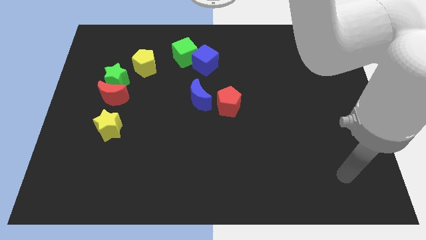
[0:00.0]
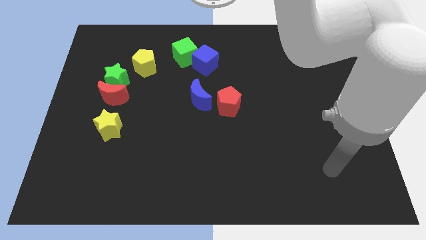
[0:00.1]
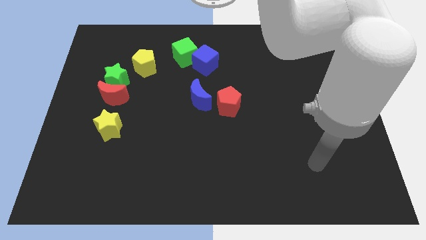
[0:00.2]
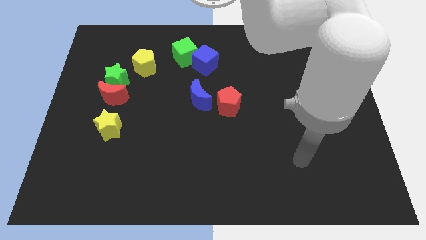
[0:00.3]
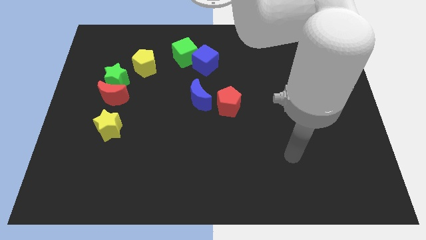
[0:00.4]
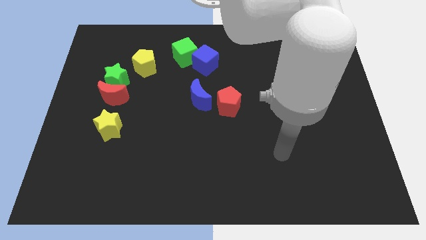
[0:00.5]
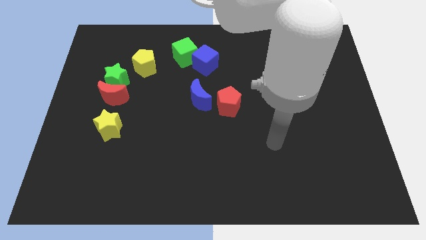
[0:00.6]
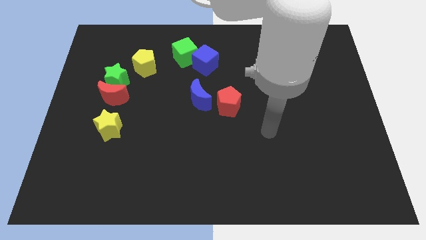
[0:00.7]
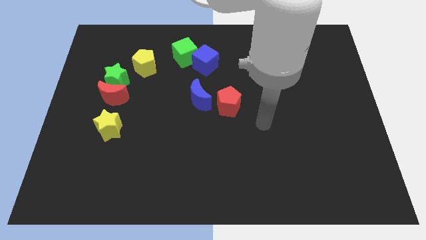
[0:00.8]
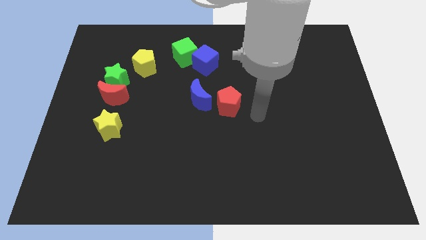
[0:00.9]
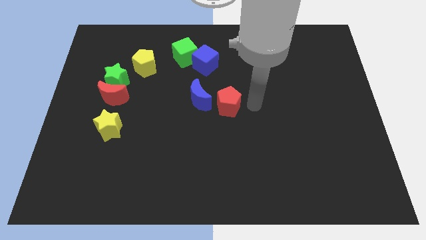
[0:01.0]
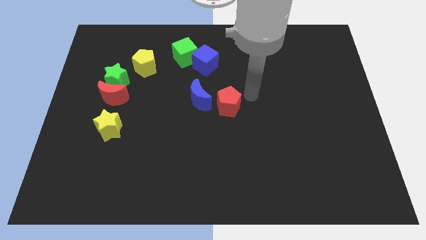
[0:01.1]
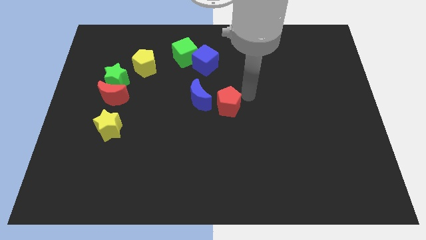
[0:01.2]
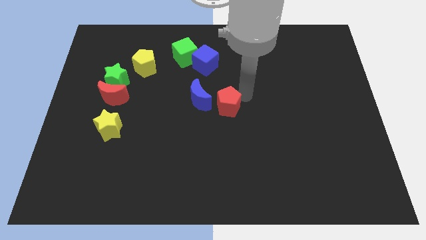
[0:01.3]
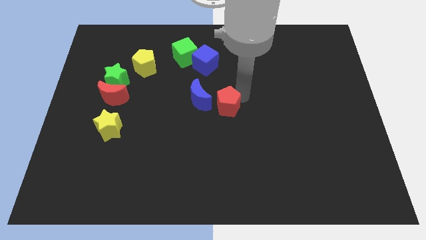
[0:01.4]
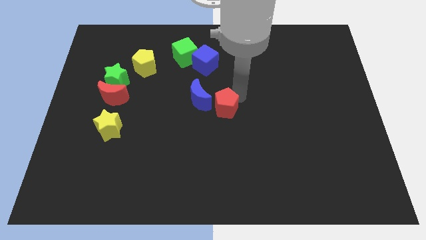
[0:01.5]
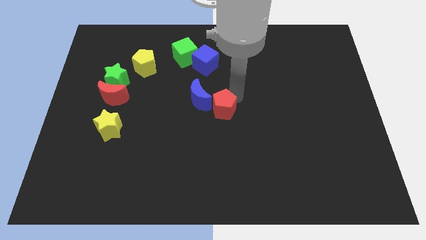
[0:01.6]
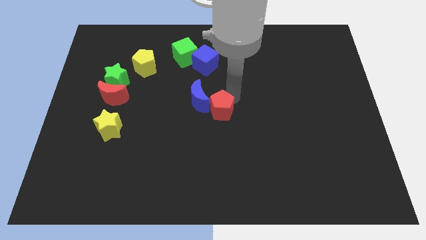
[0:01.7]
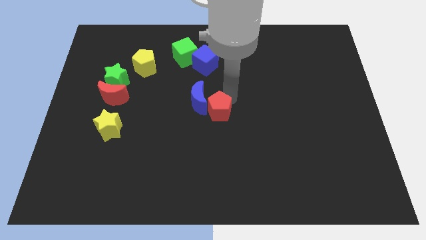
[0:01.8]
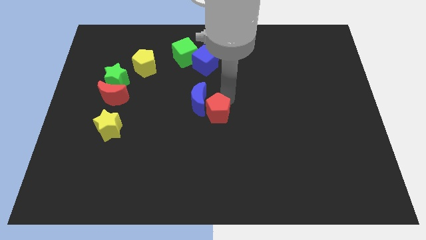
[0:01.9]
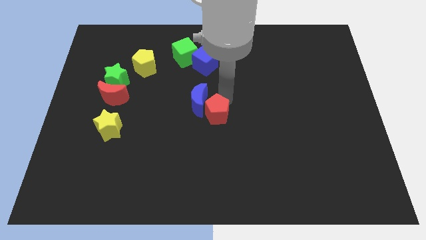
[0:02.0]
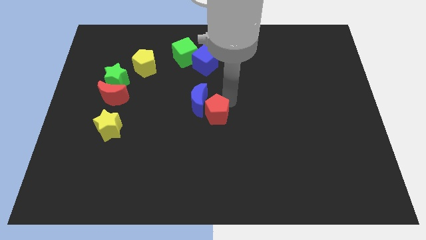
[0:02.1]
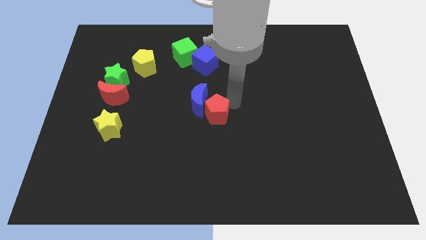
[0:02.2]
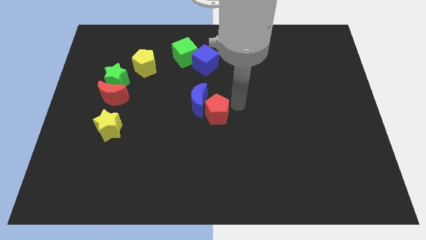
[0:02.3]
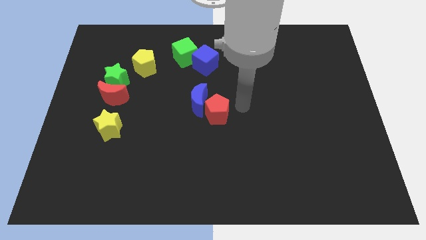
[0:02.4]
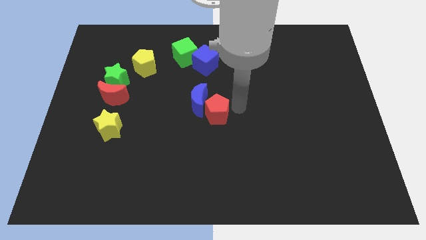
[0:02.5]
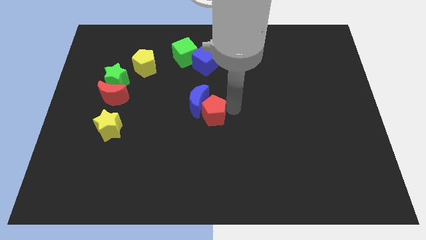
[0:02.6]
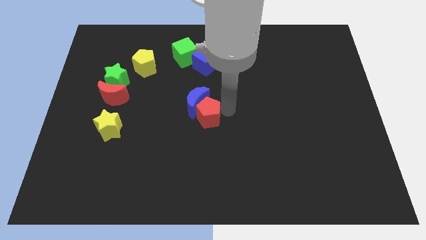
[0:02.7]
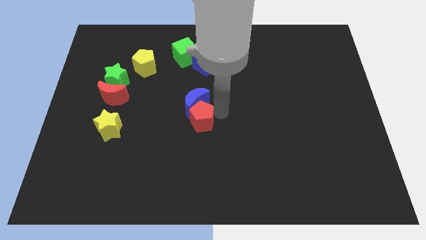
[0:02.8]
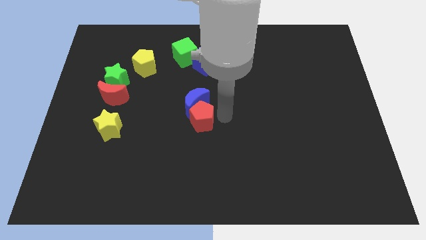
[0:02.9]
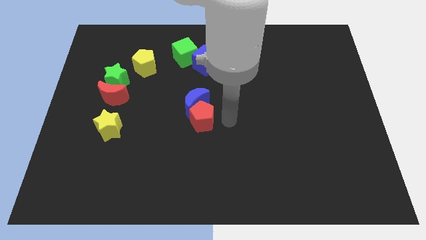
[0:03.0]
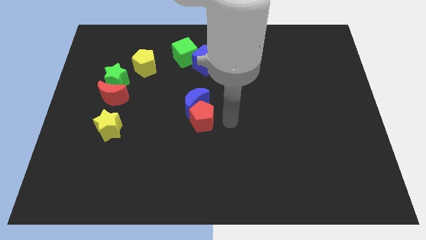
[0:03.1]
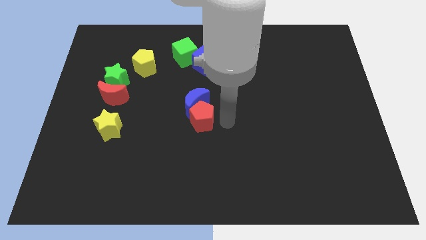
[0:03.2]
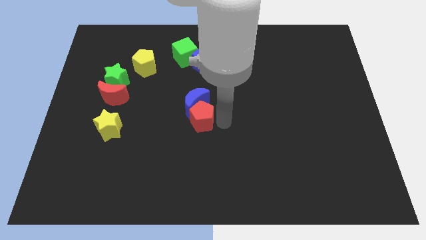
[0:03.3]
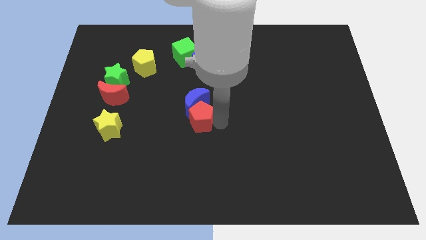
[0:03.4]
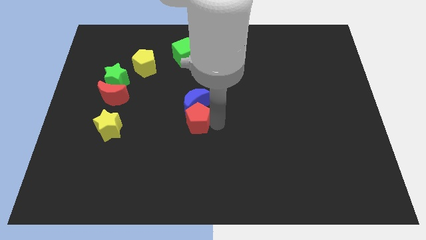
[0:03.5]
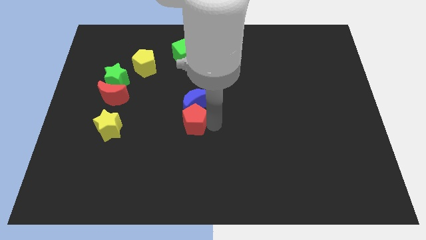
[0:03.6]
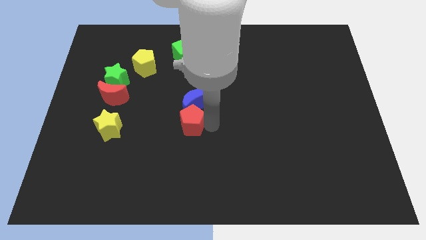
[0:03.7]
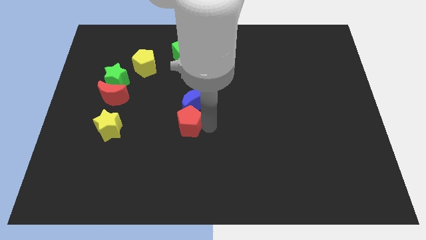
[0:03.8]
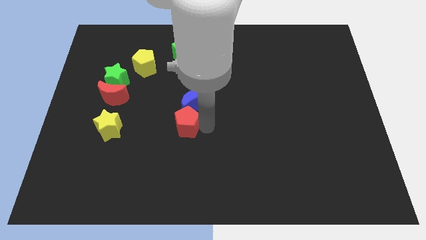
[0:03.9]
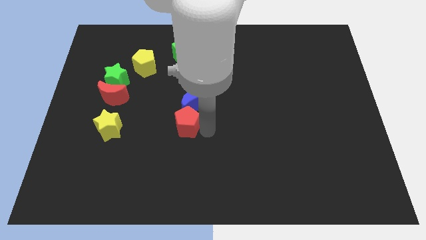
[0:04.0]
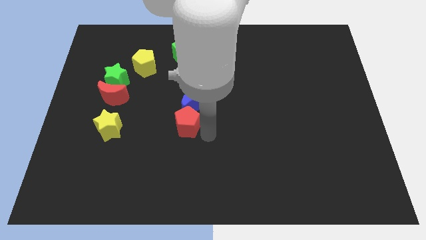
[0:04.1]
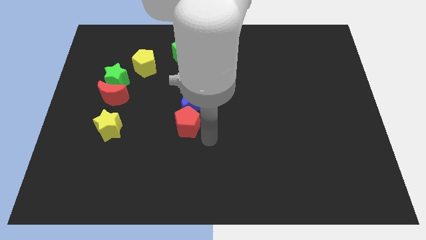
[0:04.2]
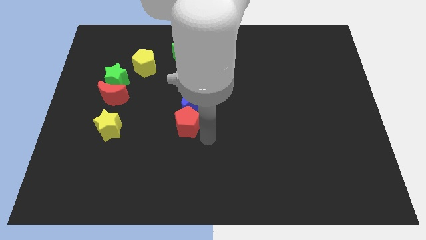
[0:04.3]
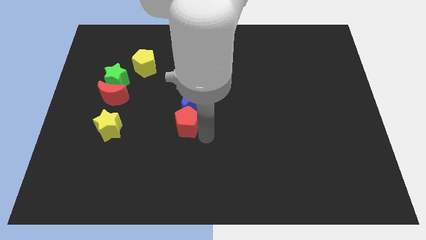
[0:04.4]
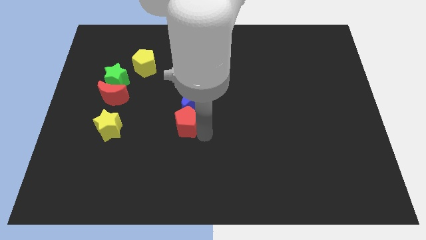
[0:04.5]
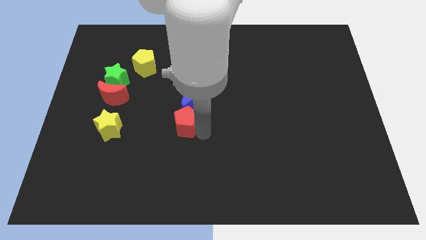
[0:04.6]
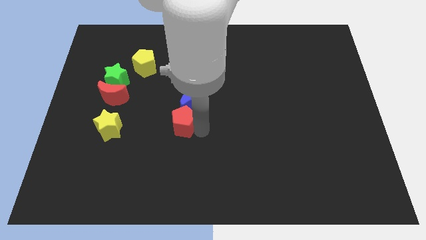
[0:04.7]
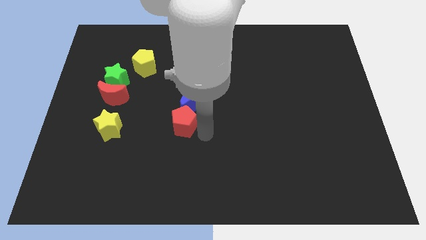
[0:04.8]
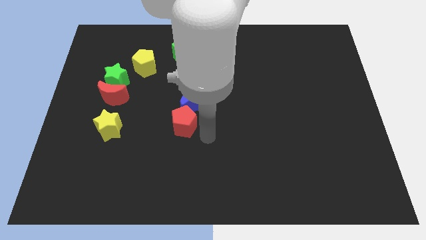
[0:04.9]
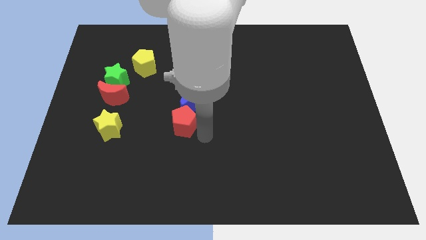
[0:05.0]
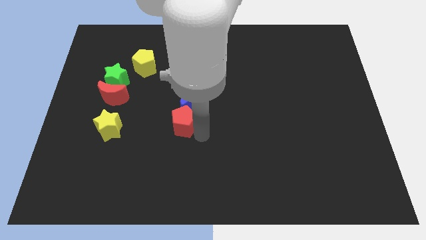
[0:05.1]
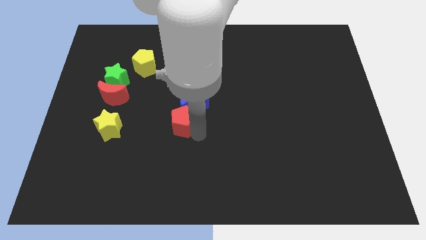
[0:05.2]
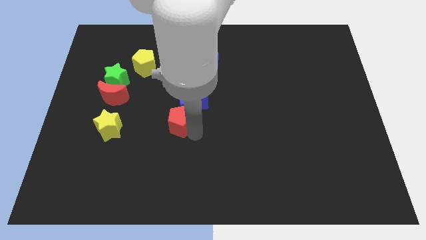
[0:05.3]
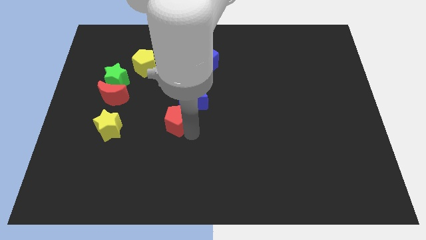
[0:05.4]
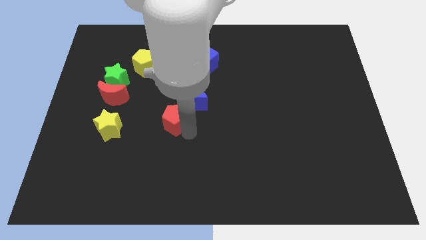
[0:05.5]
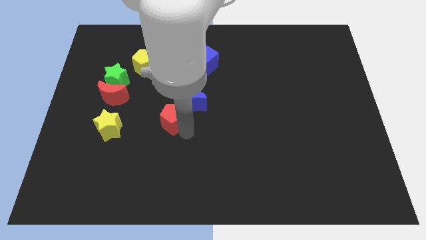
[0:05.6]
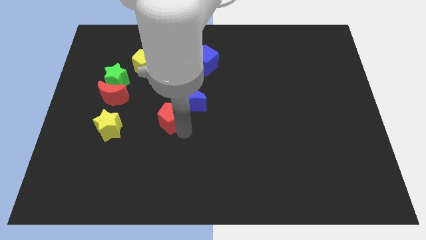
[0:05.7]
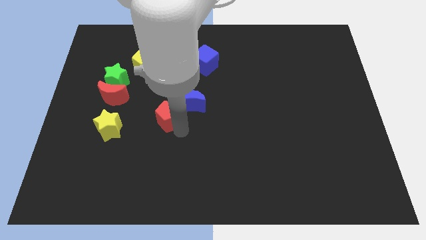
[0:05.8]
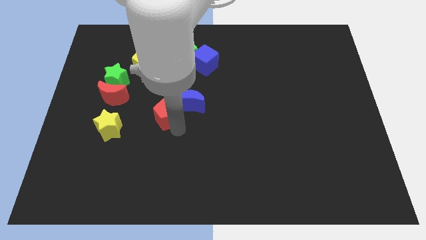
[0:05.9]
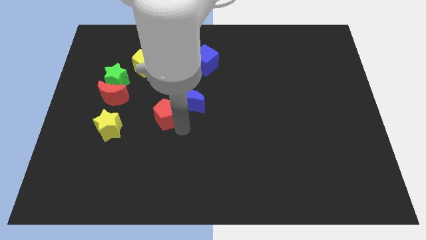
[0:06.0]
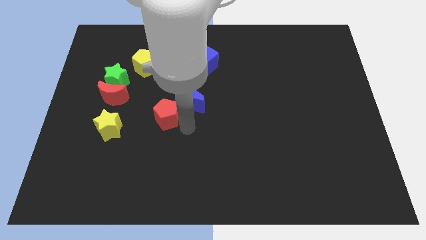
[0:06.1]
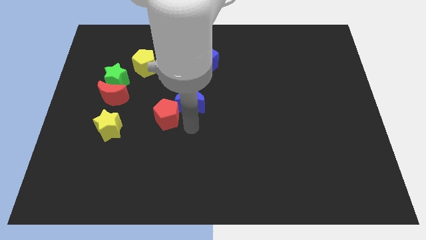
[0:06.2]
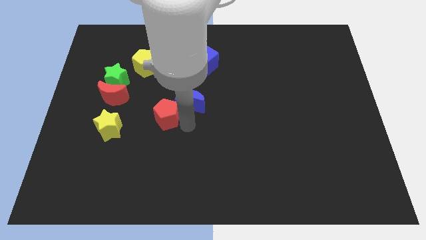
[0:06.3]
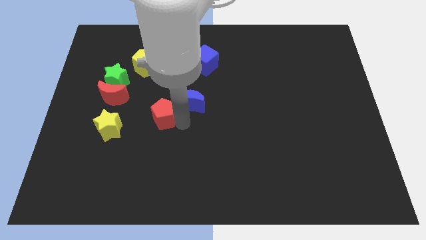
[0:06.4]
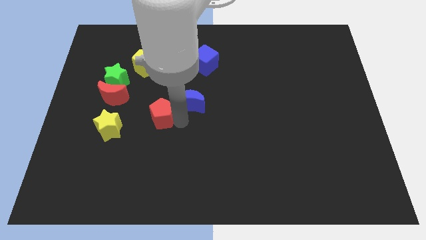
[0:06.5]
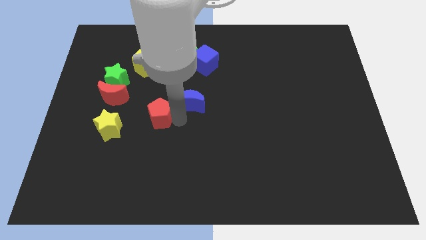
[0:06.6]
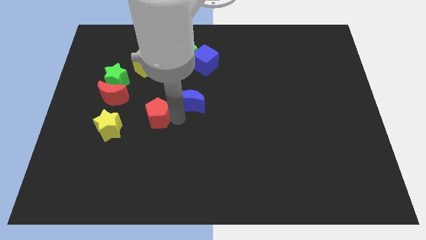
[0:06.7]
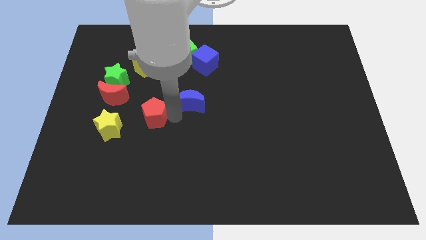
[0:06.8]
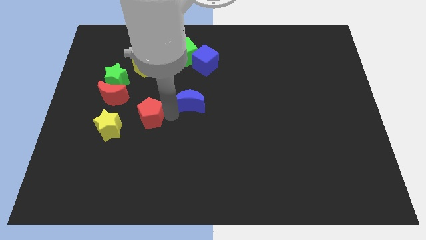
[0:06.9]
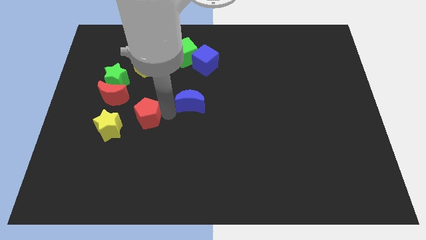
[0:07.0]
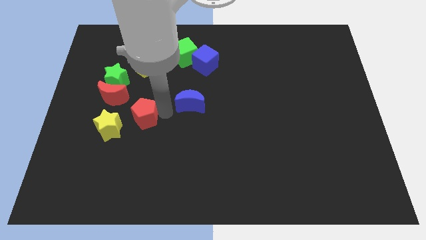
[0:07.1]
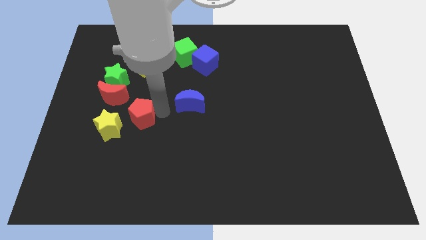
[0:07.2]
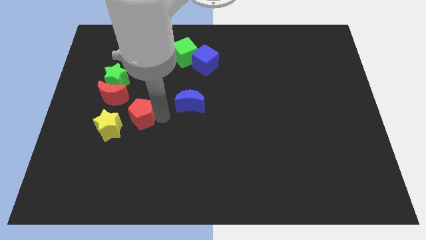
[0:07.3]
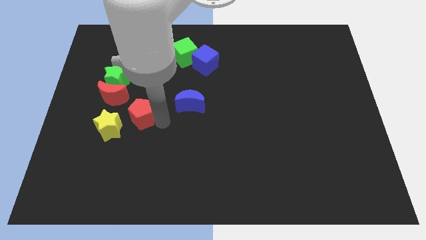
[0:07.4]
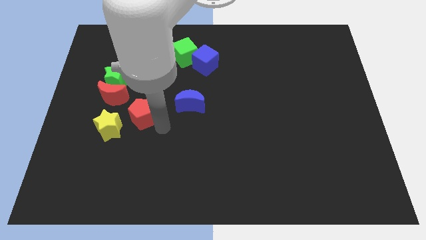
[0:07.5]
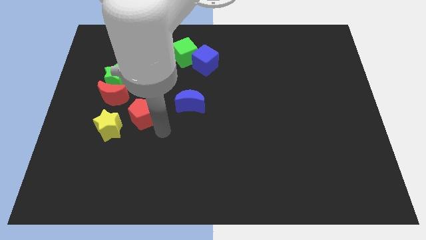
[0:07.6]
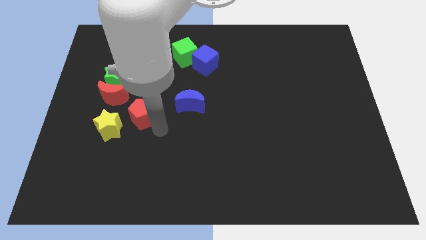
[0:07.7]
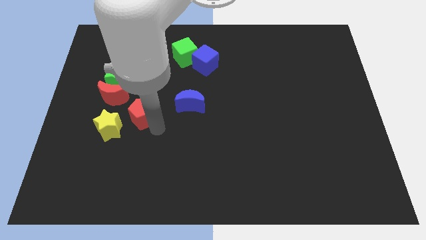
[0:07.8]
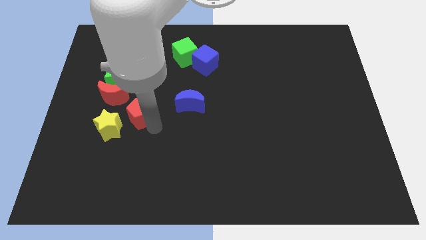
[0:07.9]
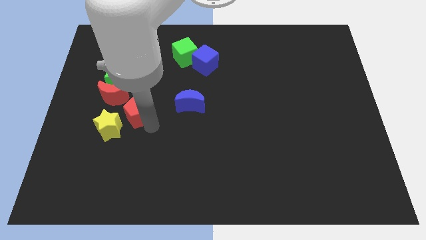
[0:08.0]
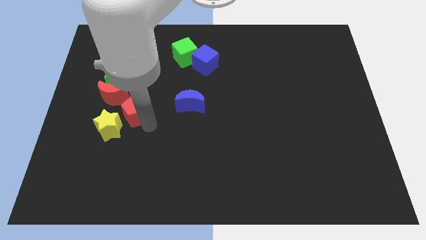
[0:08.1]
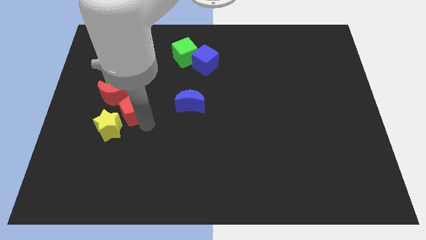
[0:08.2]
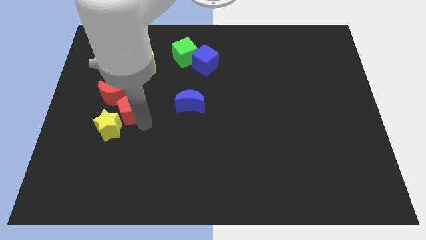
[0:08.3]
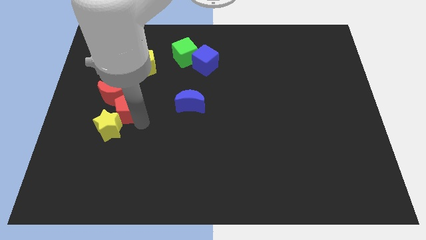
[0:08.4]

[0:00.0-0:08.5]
move the red pentagon close to the red moon

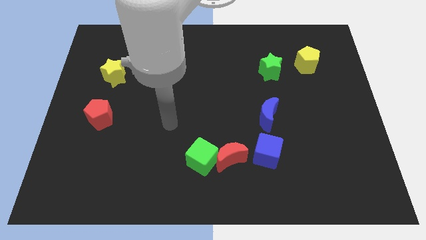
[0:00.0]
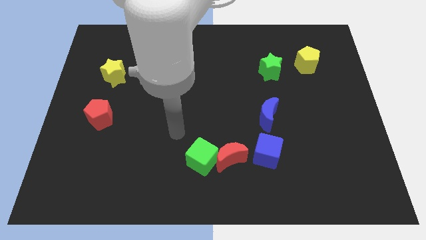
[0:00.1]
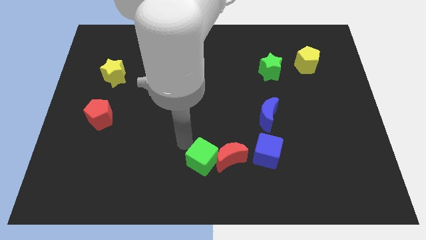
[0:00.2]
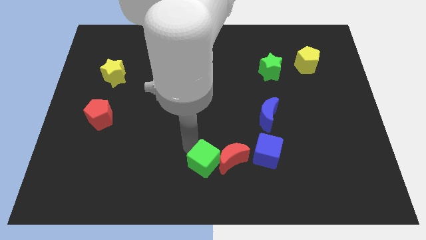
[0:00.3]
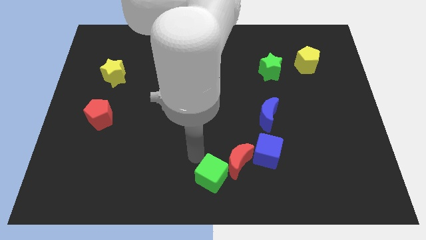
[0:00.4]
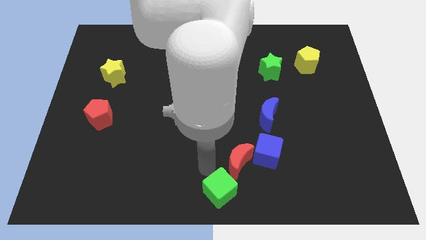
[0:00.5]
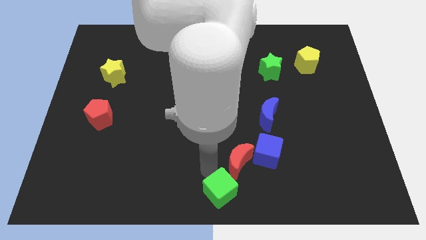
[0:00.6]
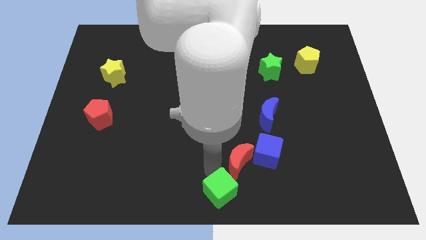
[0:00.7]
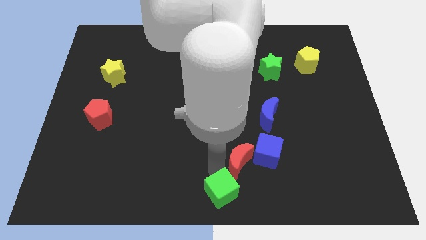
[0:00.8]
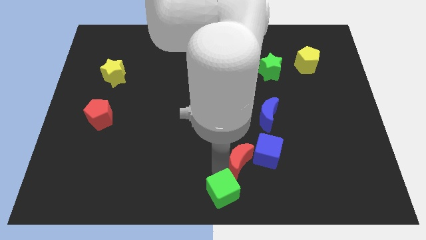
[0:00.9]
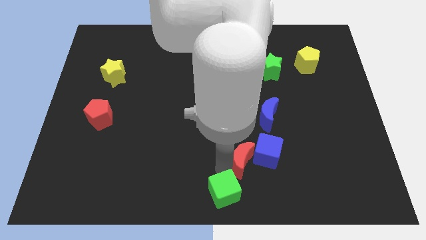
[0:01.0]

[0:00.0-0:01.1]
push the red moon close to the blue cube
